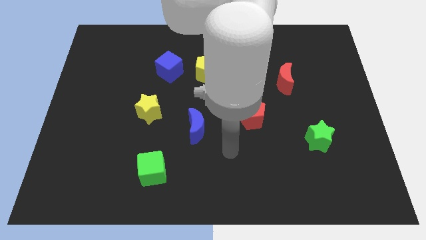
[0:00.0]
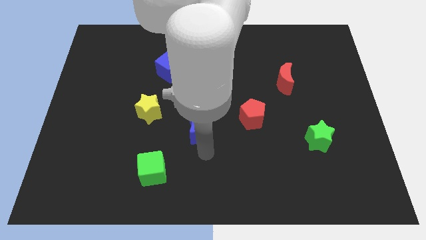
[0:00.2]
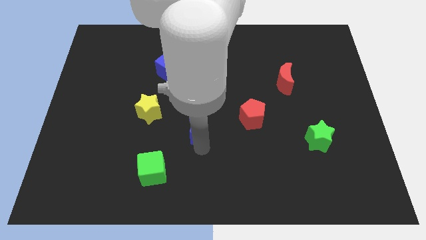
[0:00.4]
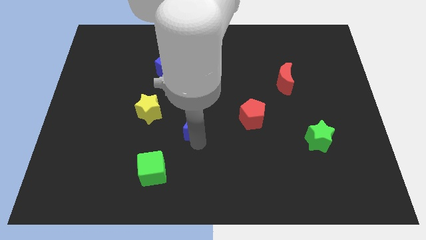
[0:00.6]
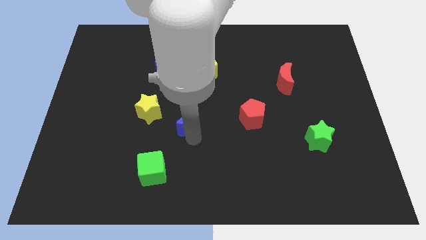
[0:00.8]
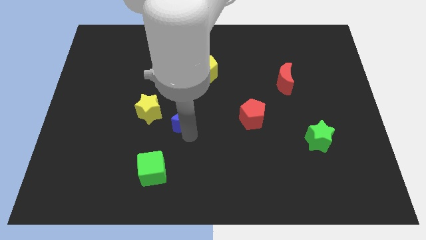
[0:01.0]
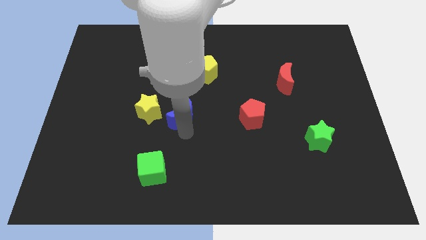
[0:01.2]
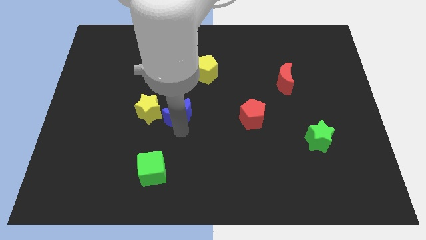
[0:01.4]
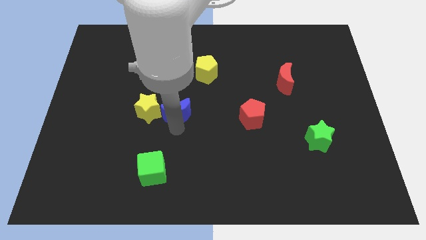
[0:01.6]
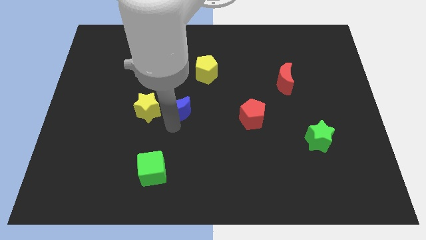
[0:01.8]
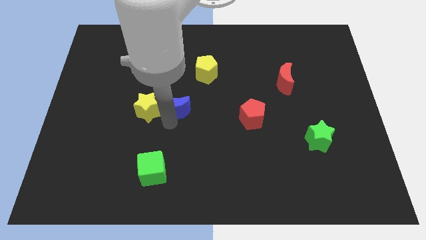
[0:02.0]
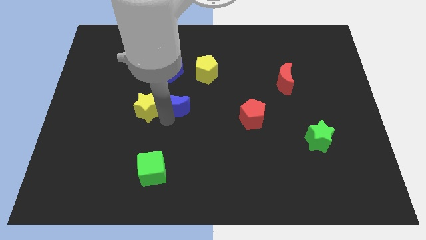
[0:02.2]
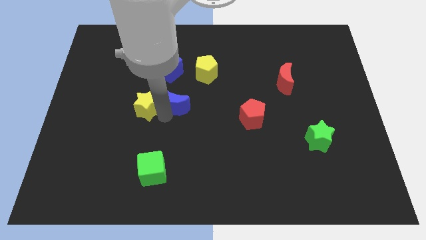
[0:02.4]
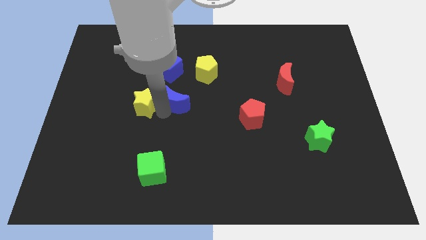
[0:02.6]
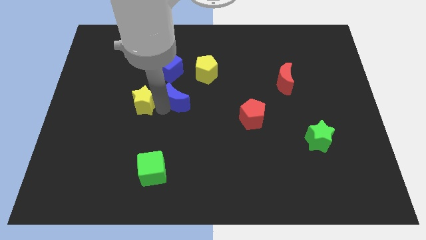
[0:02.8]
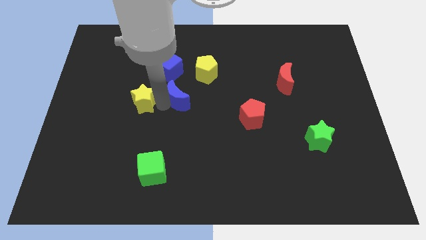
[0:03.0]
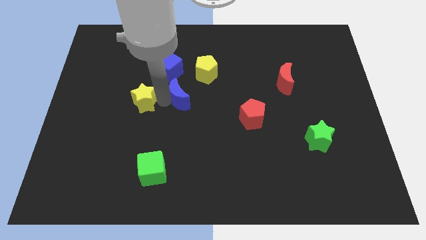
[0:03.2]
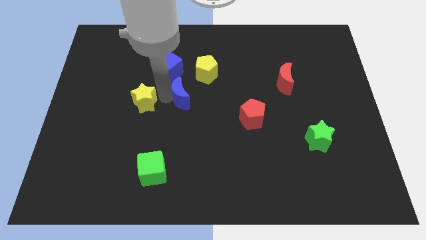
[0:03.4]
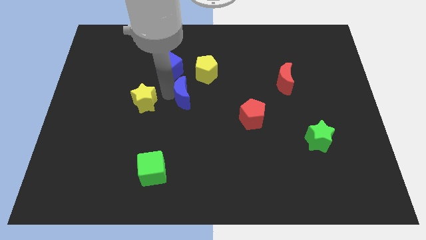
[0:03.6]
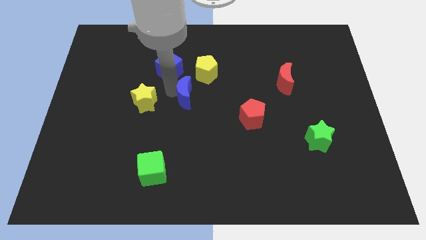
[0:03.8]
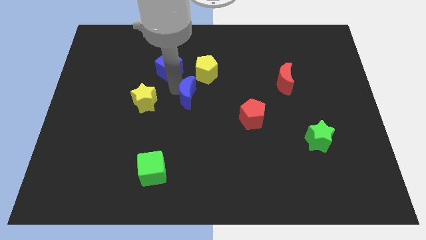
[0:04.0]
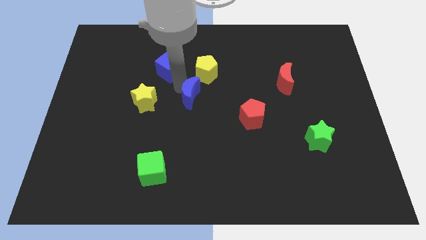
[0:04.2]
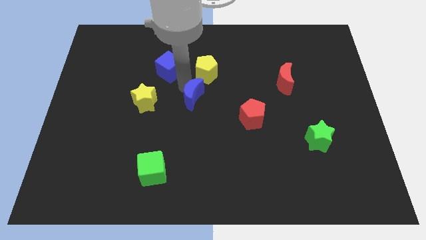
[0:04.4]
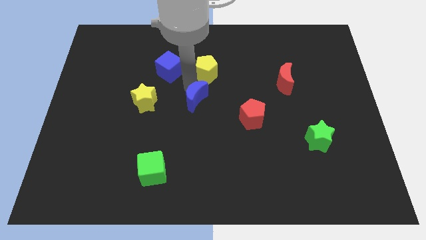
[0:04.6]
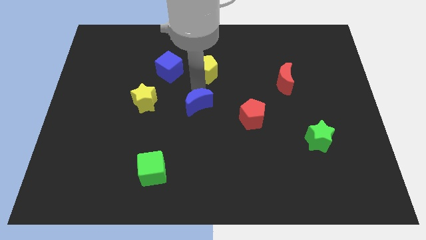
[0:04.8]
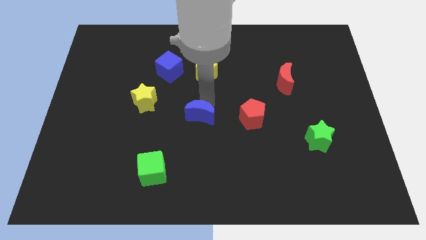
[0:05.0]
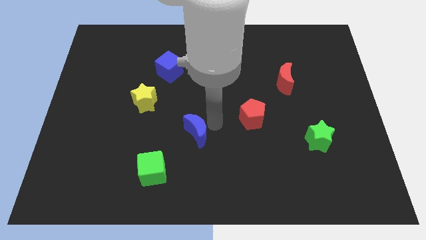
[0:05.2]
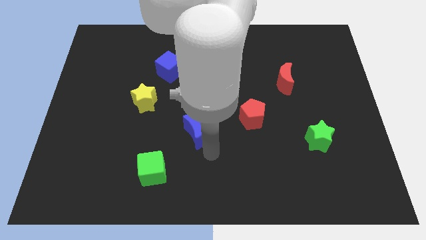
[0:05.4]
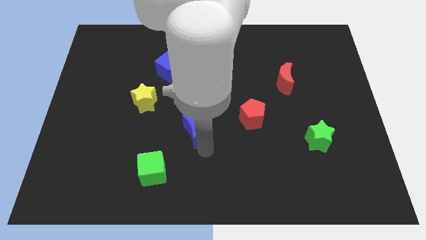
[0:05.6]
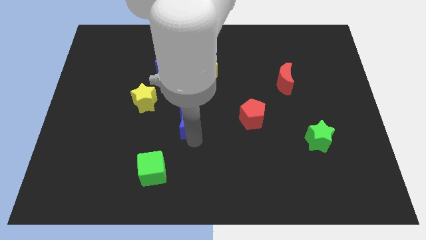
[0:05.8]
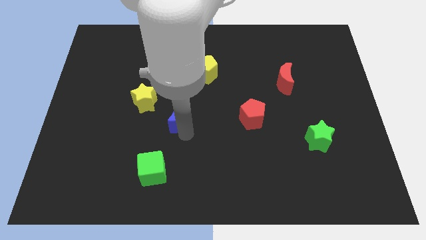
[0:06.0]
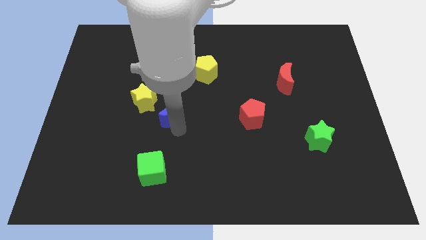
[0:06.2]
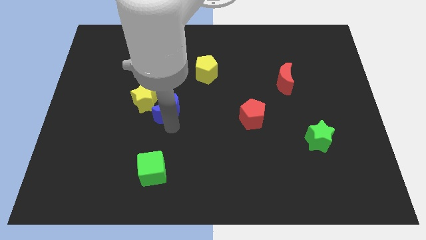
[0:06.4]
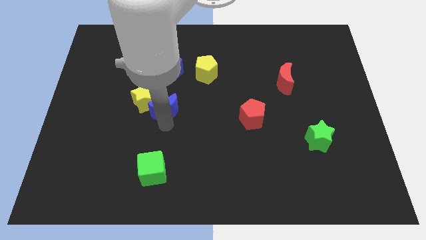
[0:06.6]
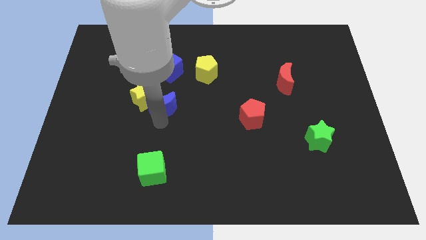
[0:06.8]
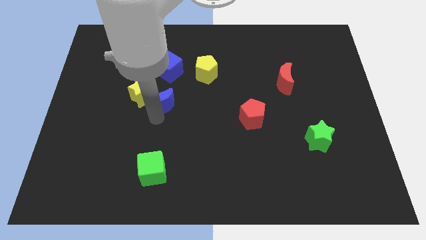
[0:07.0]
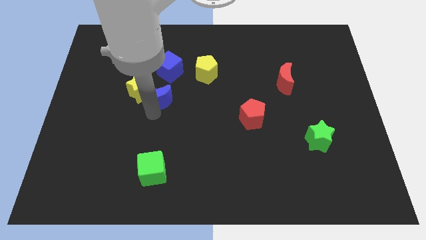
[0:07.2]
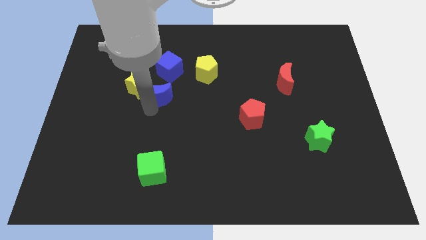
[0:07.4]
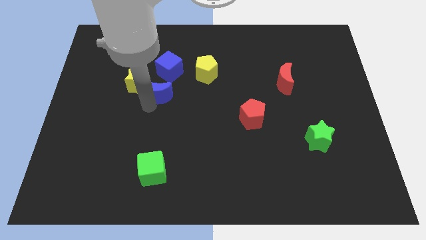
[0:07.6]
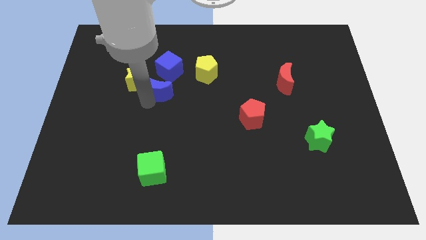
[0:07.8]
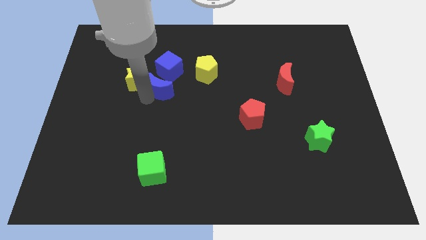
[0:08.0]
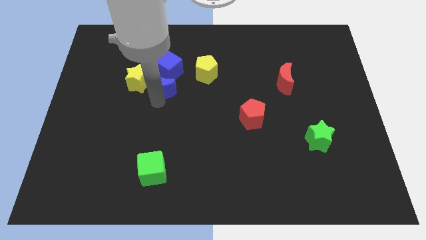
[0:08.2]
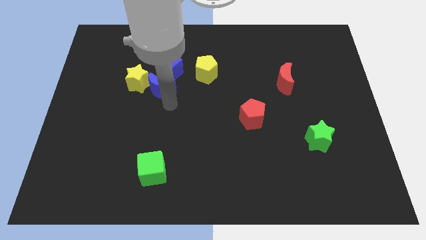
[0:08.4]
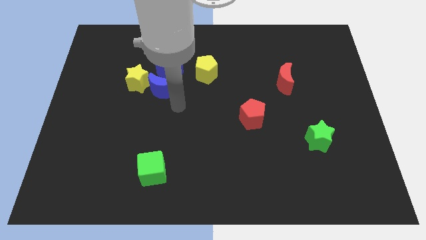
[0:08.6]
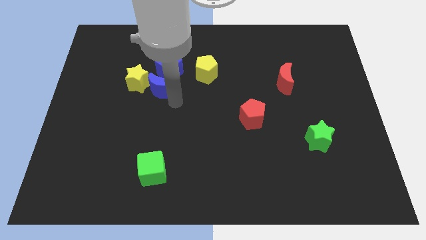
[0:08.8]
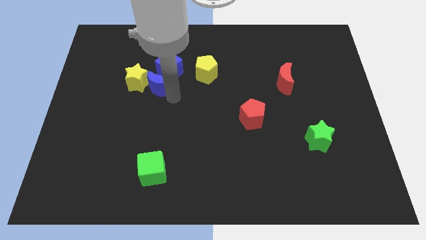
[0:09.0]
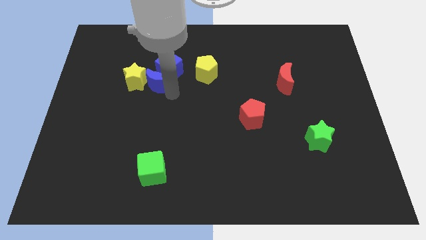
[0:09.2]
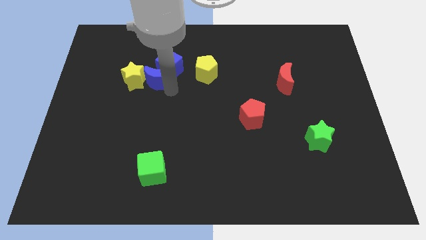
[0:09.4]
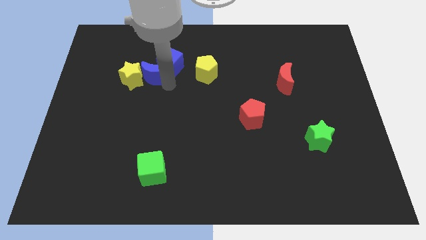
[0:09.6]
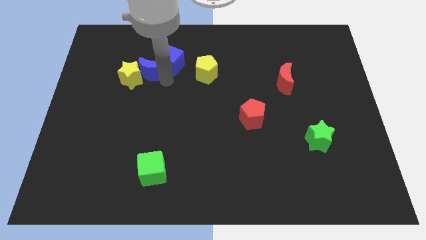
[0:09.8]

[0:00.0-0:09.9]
slide the blue moon diagonally up and to the left

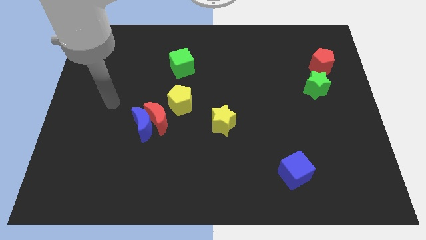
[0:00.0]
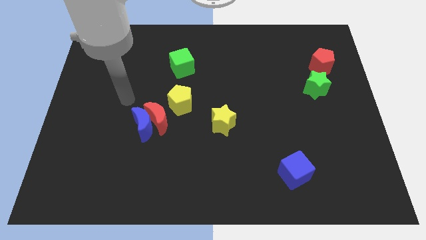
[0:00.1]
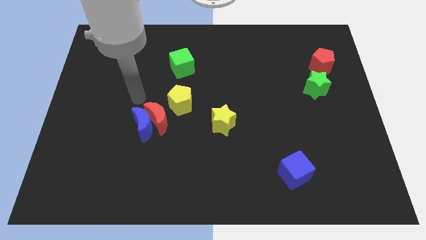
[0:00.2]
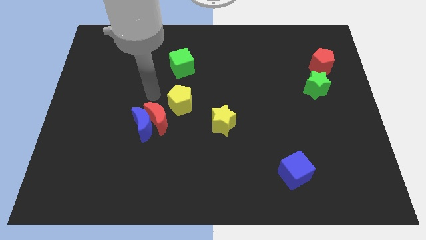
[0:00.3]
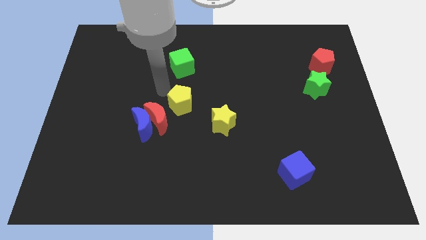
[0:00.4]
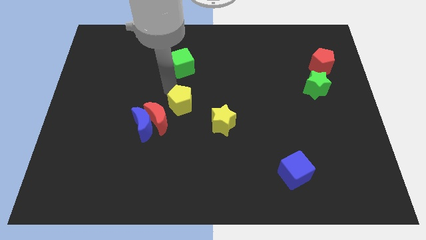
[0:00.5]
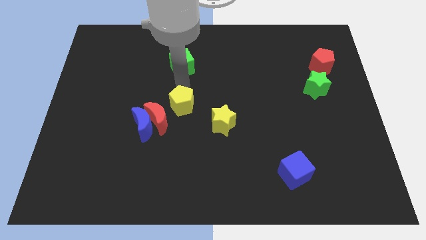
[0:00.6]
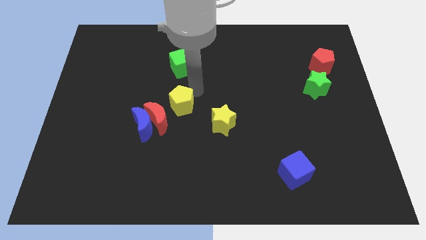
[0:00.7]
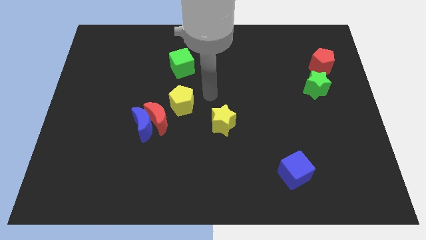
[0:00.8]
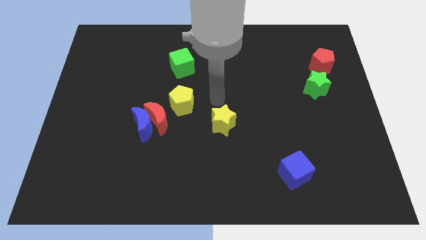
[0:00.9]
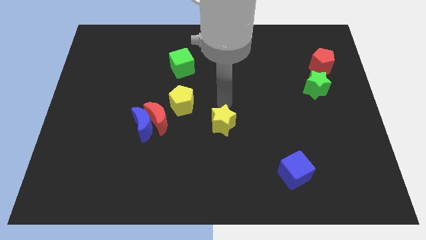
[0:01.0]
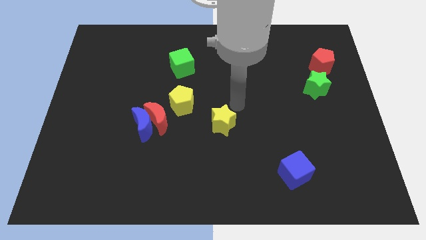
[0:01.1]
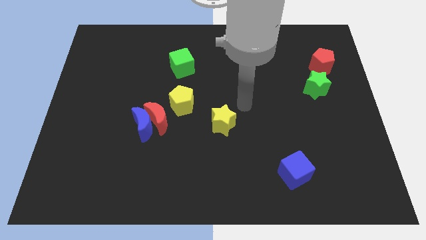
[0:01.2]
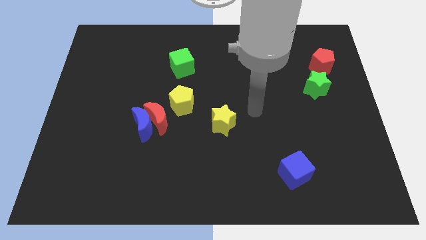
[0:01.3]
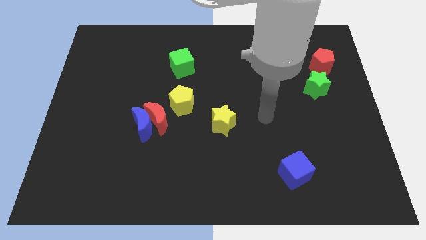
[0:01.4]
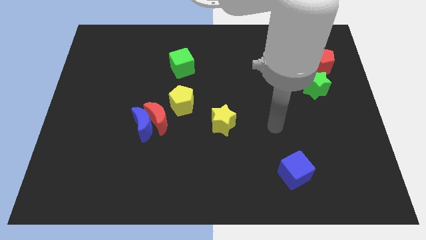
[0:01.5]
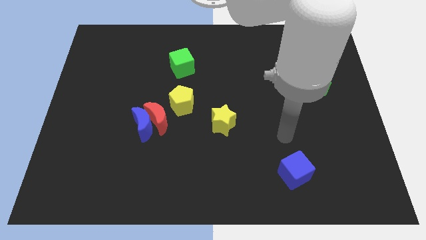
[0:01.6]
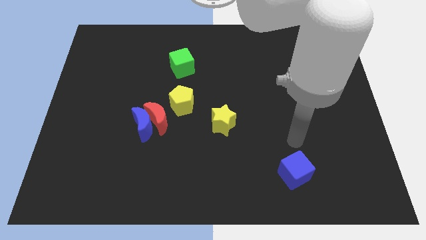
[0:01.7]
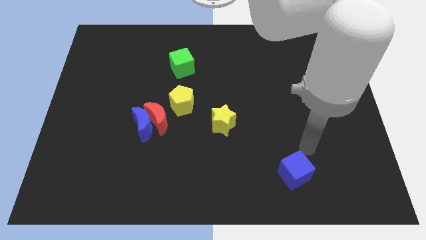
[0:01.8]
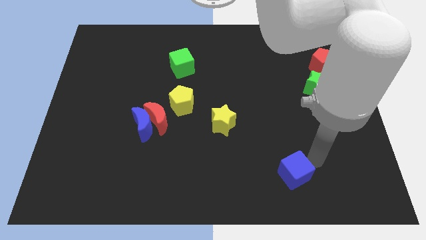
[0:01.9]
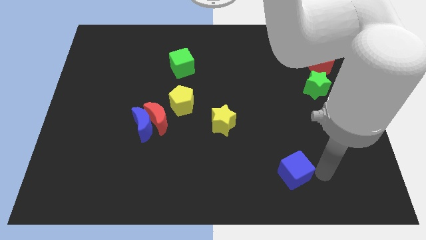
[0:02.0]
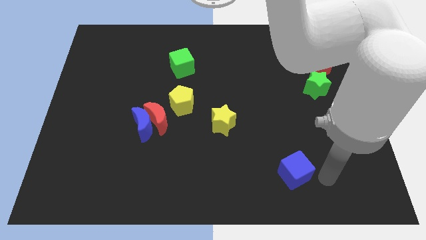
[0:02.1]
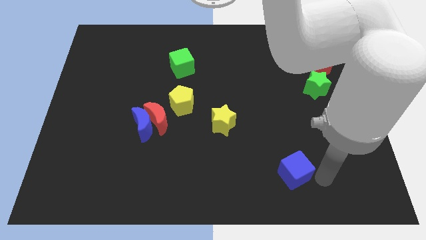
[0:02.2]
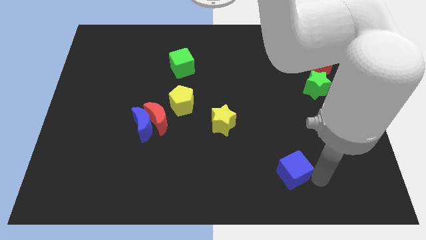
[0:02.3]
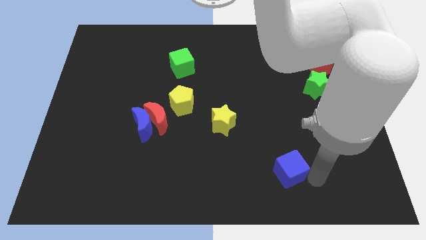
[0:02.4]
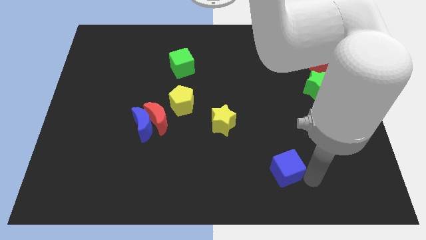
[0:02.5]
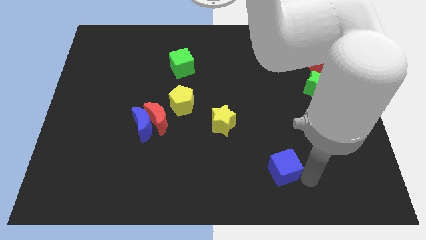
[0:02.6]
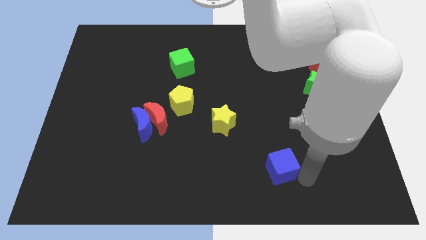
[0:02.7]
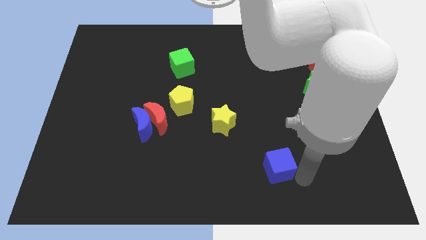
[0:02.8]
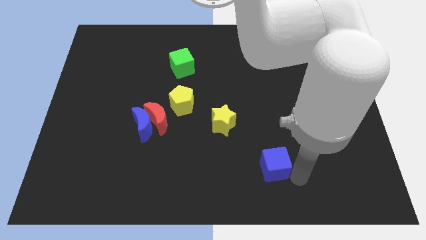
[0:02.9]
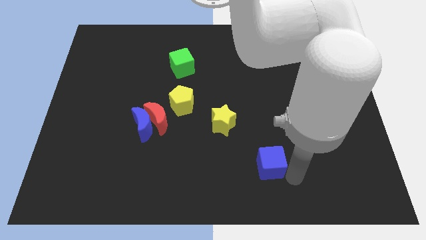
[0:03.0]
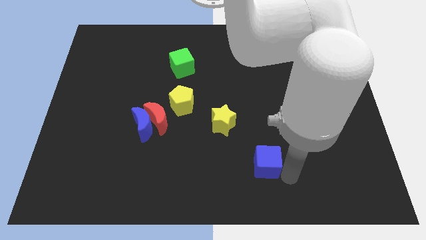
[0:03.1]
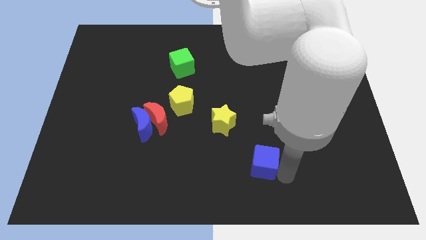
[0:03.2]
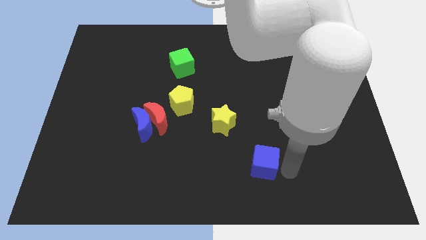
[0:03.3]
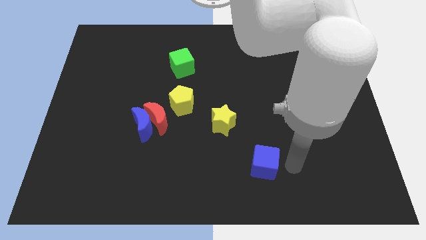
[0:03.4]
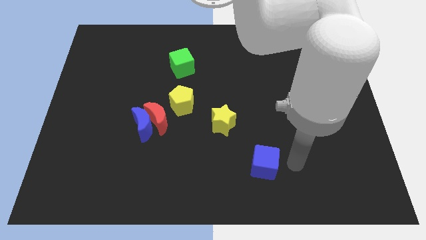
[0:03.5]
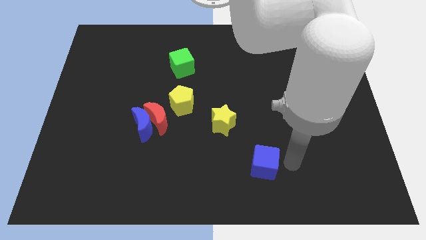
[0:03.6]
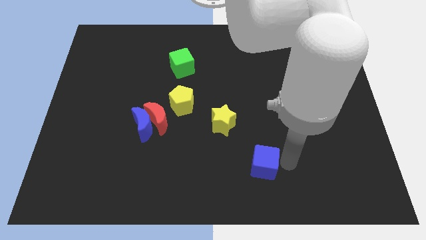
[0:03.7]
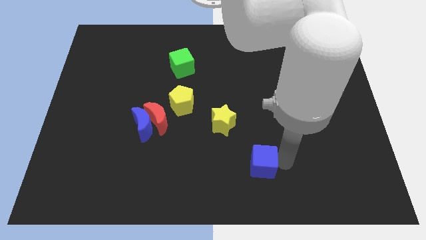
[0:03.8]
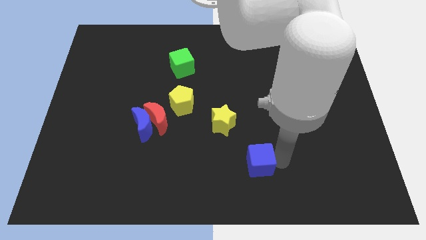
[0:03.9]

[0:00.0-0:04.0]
slightly push the blue cube to the left
